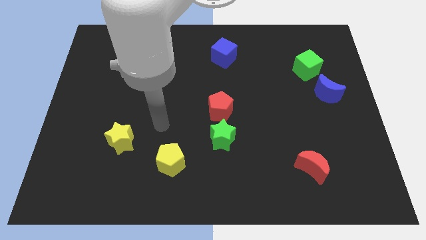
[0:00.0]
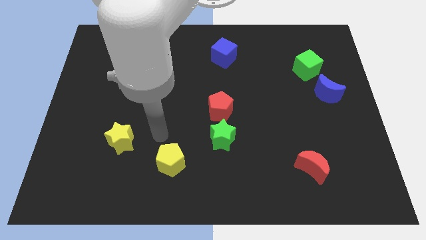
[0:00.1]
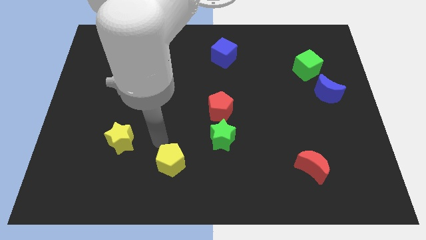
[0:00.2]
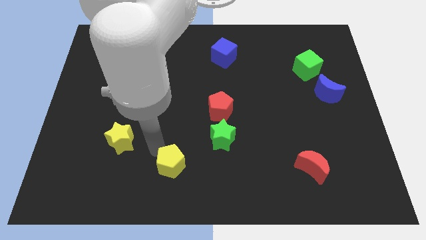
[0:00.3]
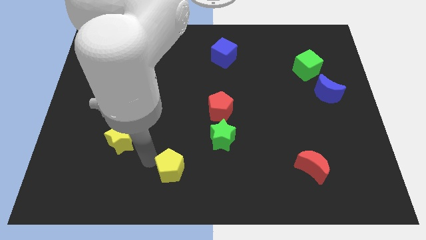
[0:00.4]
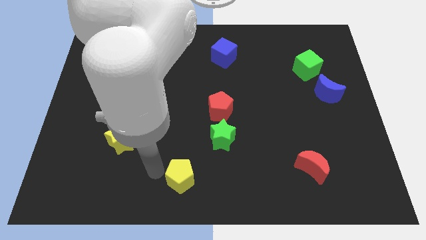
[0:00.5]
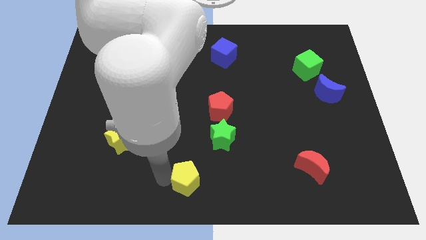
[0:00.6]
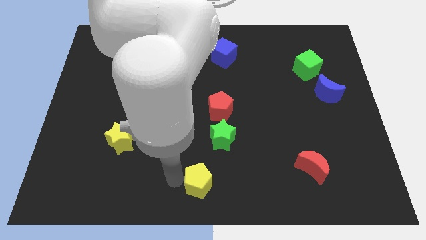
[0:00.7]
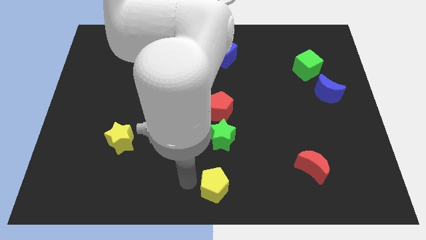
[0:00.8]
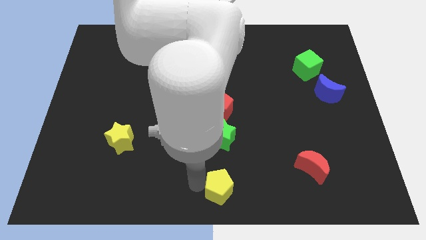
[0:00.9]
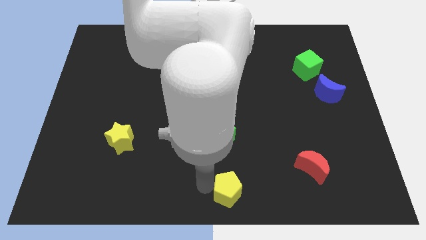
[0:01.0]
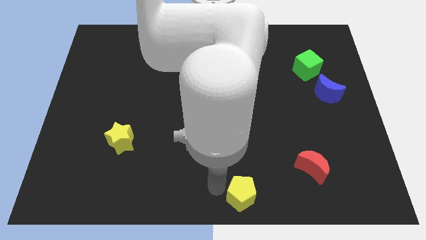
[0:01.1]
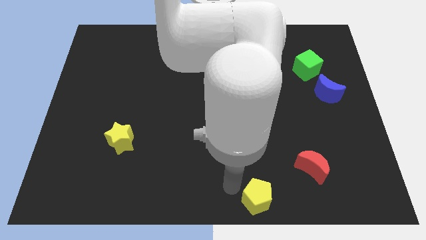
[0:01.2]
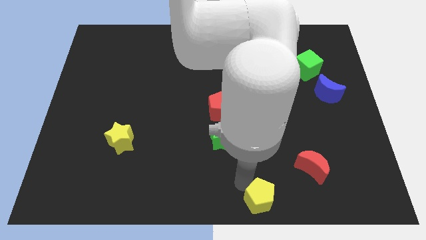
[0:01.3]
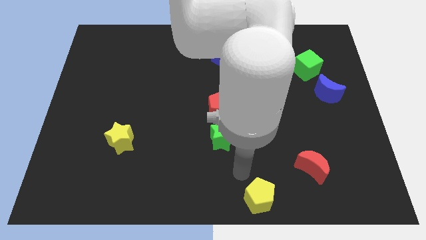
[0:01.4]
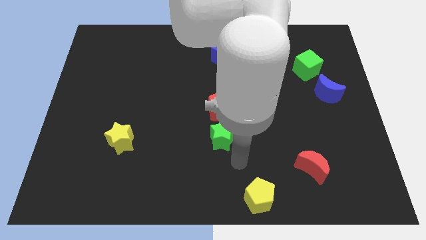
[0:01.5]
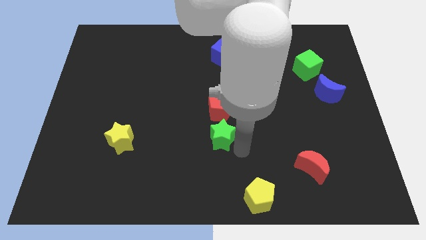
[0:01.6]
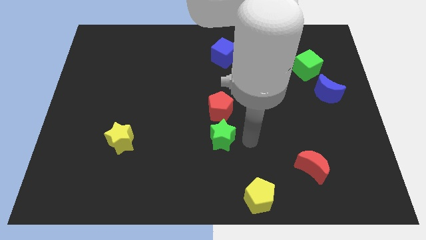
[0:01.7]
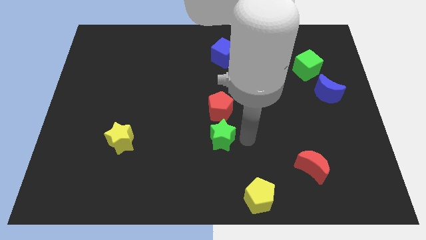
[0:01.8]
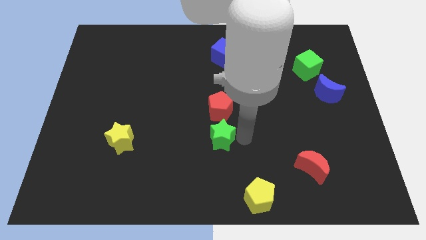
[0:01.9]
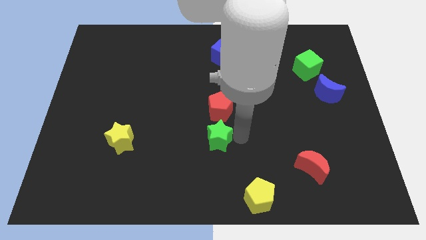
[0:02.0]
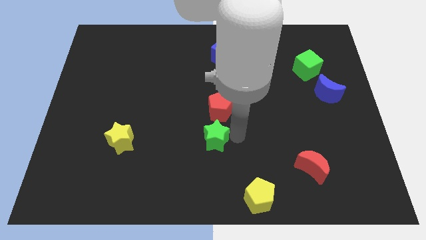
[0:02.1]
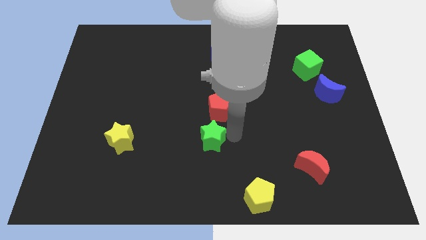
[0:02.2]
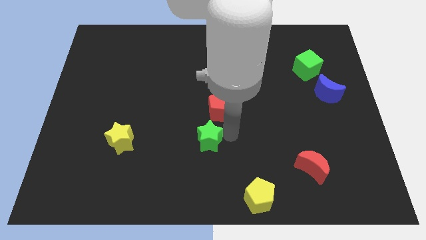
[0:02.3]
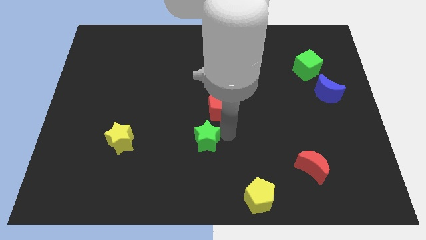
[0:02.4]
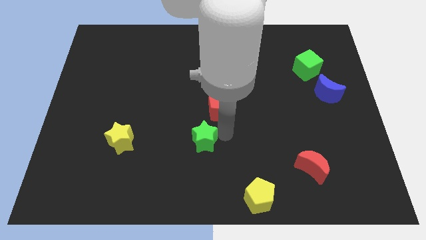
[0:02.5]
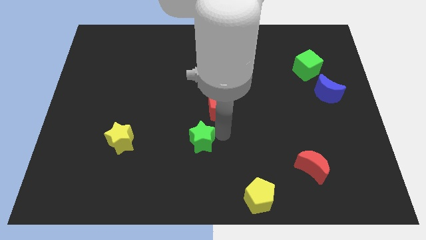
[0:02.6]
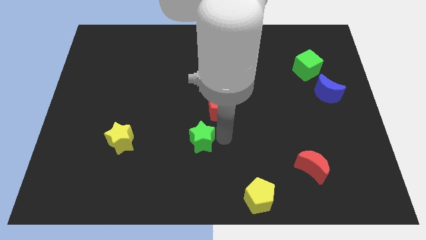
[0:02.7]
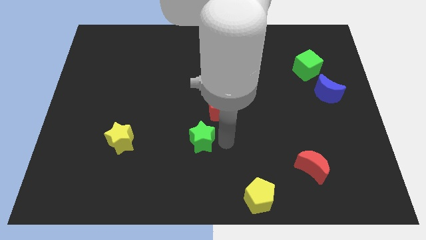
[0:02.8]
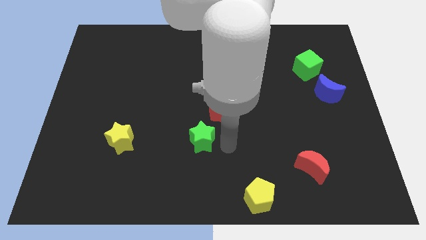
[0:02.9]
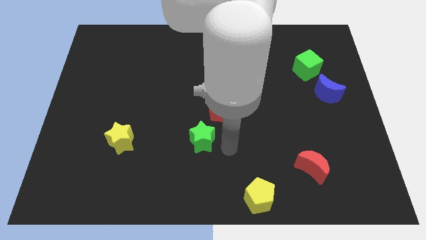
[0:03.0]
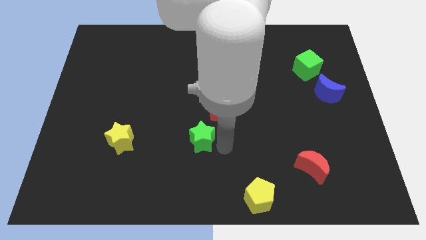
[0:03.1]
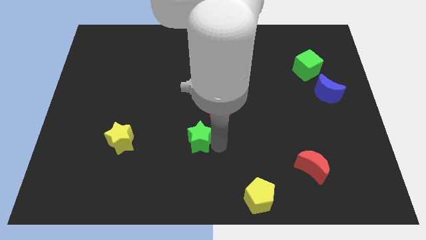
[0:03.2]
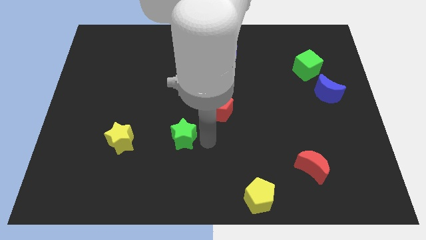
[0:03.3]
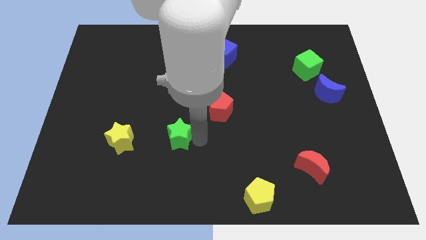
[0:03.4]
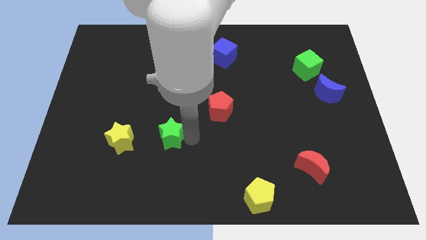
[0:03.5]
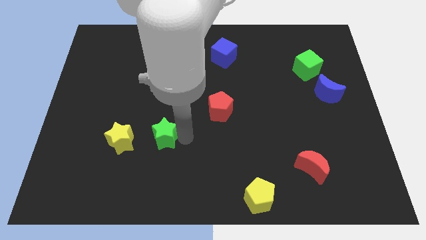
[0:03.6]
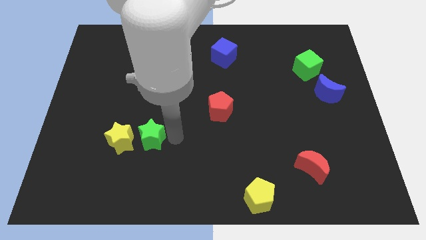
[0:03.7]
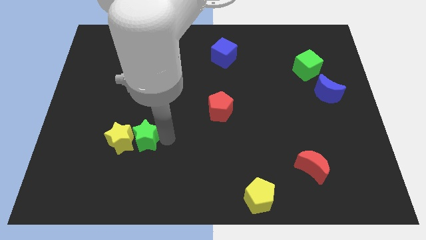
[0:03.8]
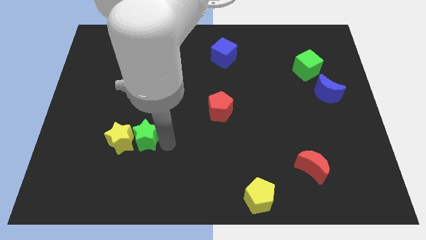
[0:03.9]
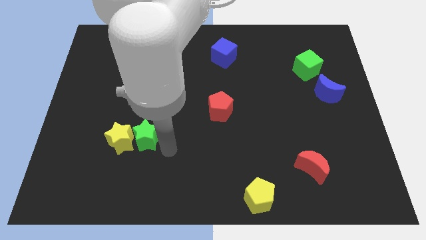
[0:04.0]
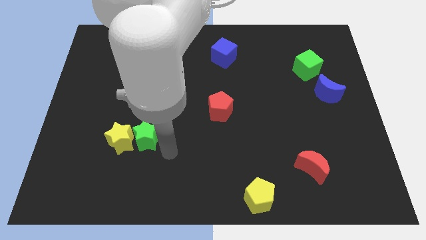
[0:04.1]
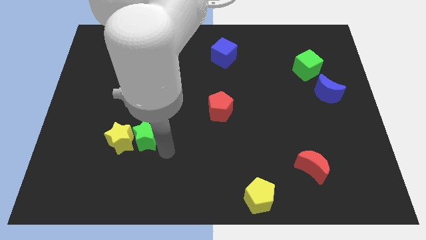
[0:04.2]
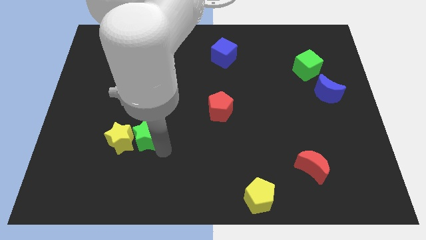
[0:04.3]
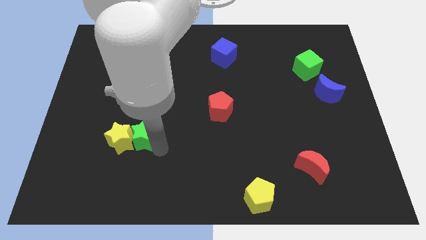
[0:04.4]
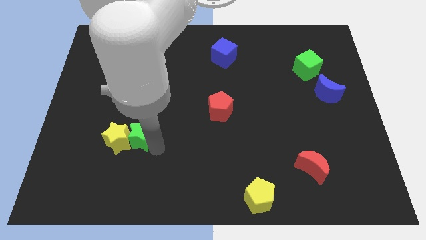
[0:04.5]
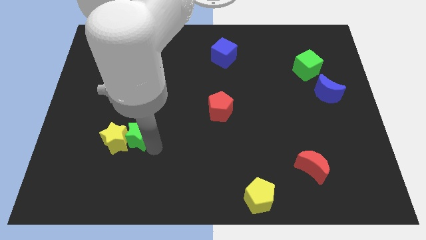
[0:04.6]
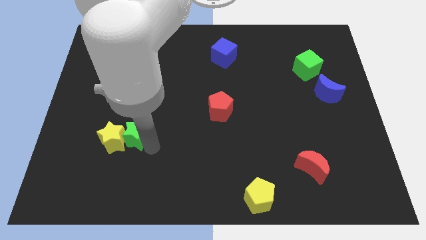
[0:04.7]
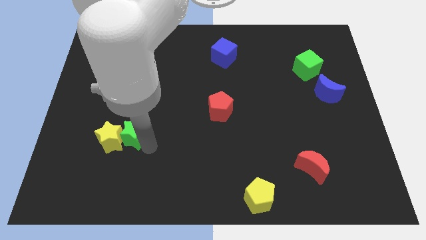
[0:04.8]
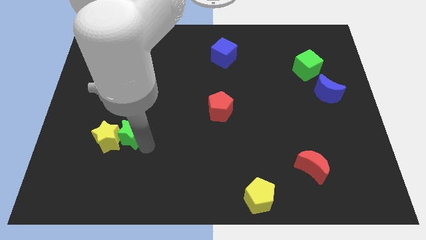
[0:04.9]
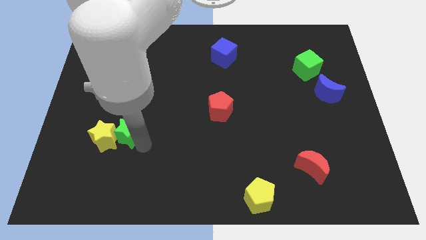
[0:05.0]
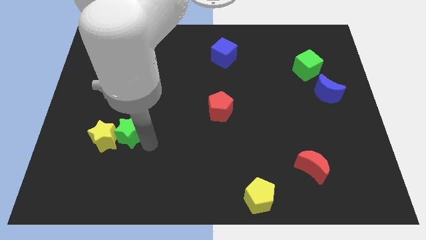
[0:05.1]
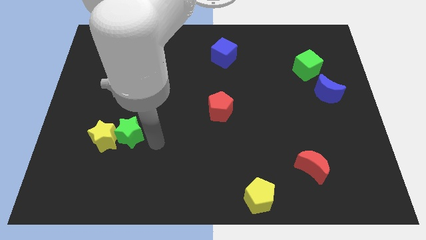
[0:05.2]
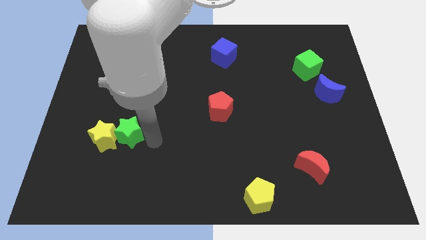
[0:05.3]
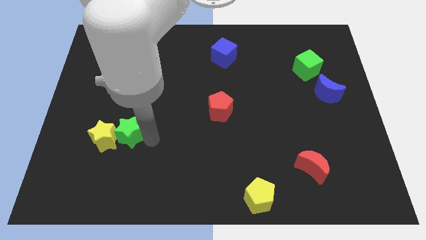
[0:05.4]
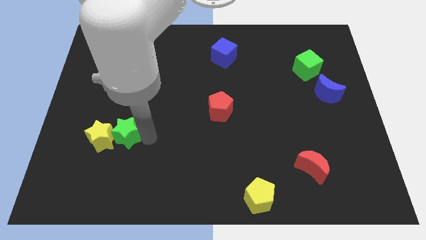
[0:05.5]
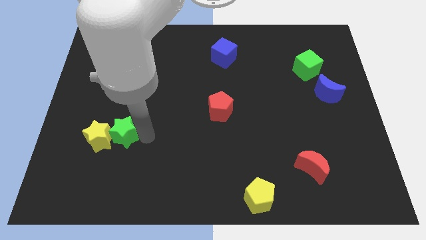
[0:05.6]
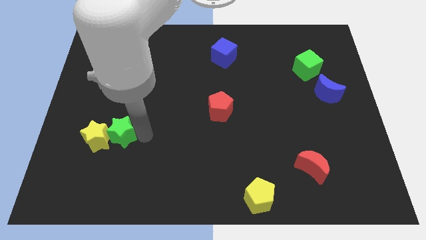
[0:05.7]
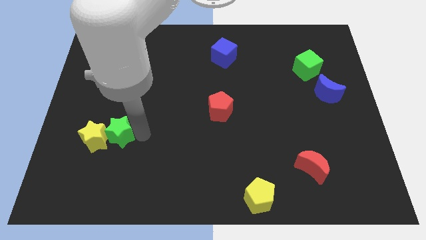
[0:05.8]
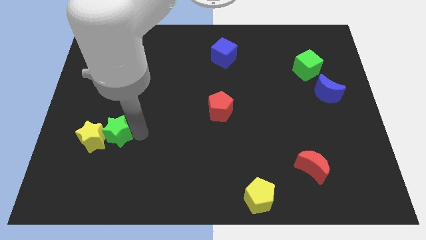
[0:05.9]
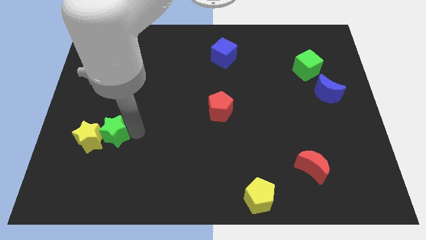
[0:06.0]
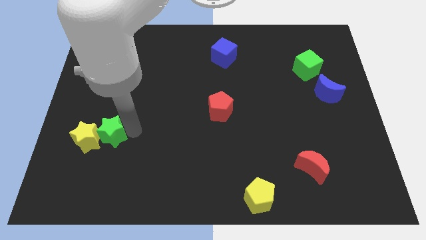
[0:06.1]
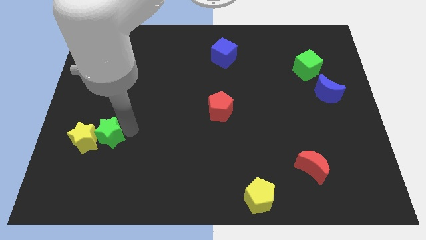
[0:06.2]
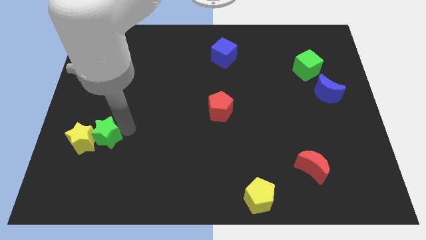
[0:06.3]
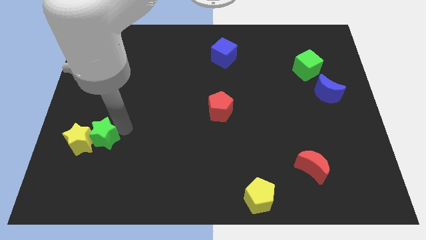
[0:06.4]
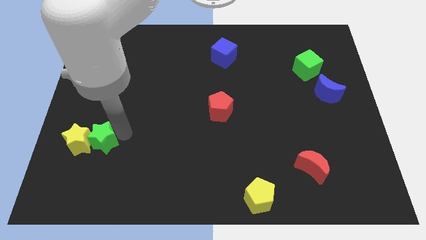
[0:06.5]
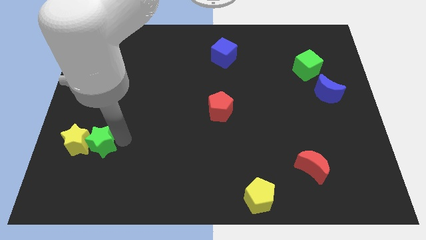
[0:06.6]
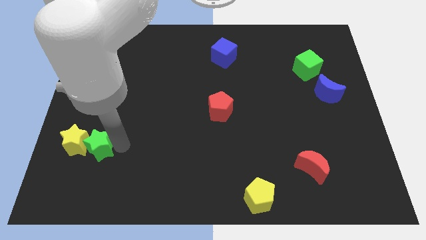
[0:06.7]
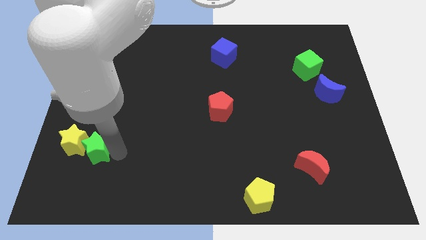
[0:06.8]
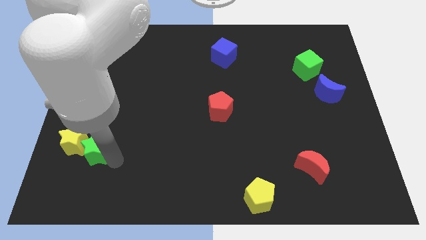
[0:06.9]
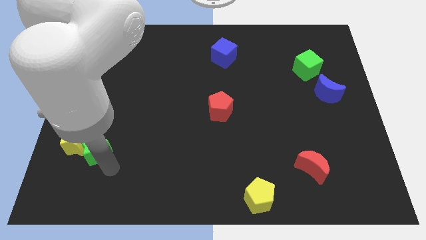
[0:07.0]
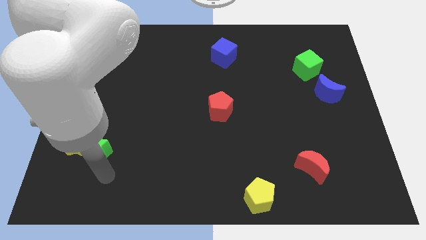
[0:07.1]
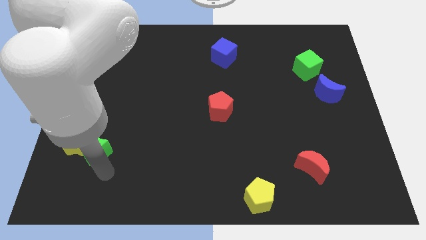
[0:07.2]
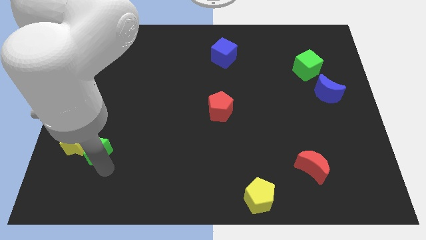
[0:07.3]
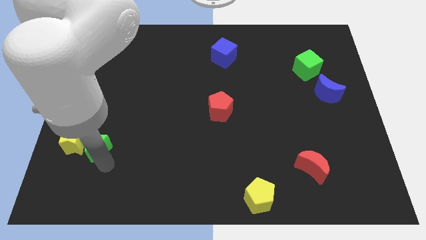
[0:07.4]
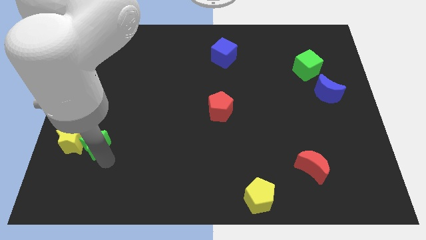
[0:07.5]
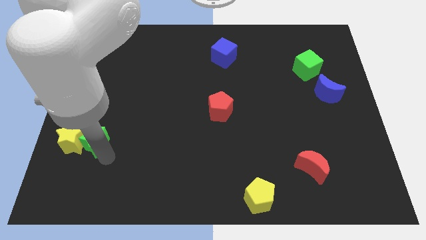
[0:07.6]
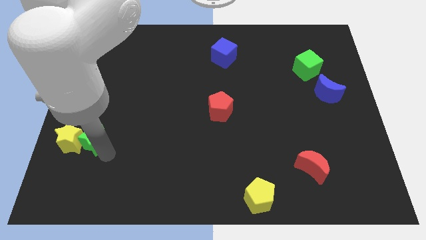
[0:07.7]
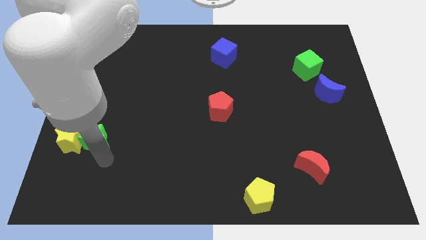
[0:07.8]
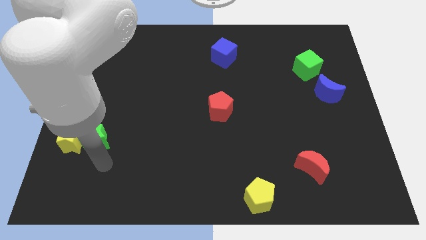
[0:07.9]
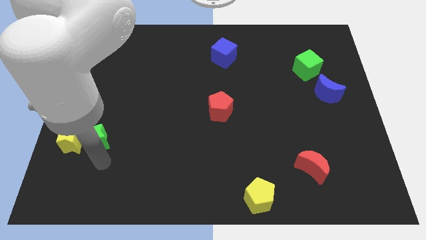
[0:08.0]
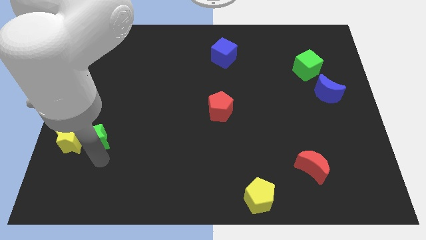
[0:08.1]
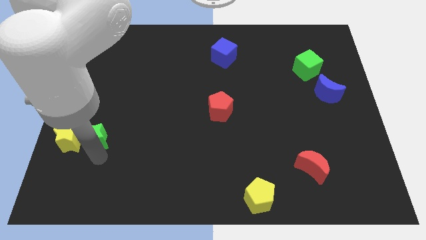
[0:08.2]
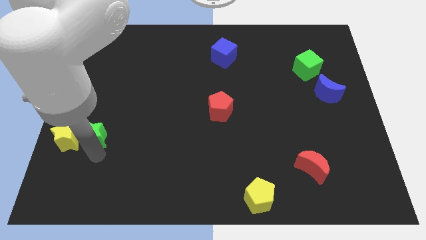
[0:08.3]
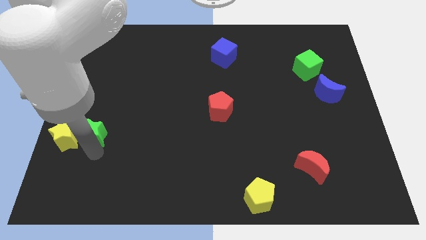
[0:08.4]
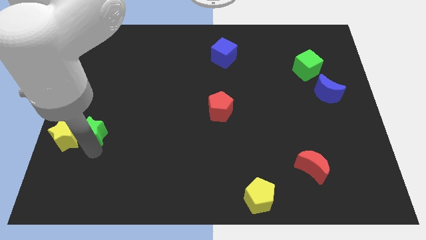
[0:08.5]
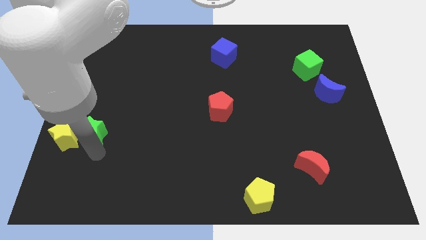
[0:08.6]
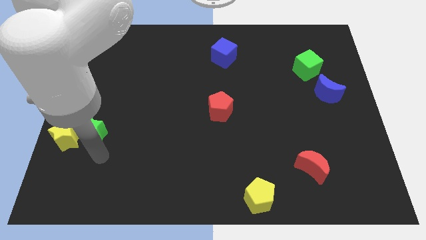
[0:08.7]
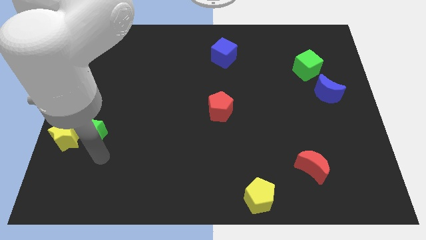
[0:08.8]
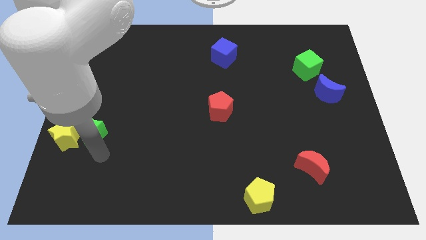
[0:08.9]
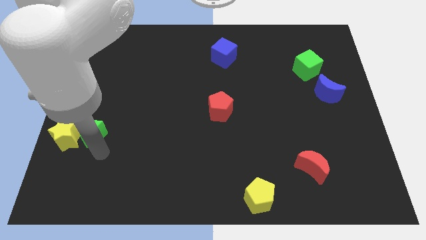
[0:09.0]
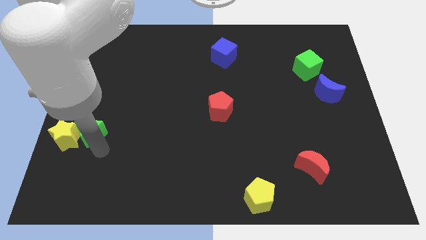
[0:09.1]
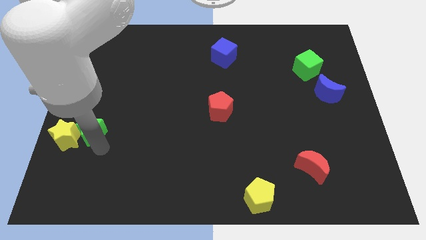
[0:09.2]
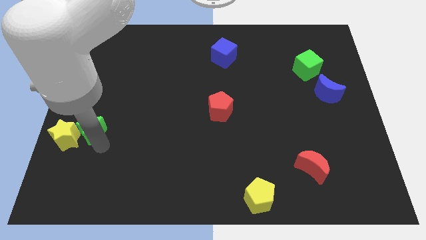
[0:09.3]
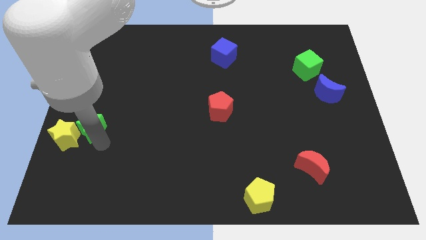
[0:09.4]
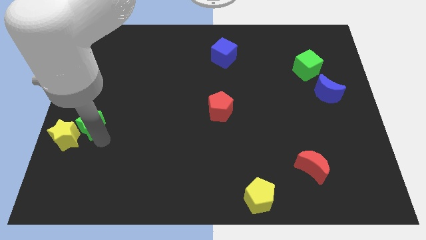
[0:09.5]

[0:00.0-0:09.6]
put the green star to the left side of the board
